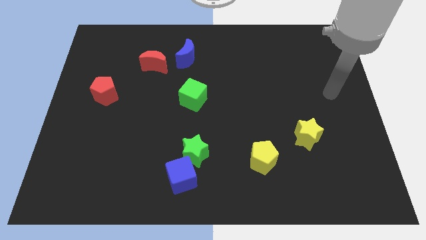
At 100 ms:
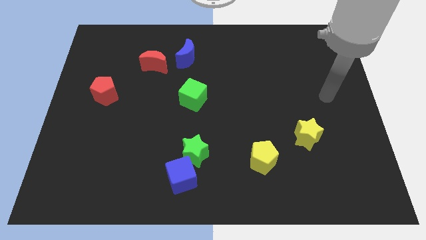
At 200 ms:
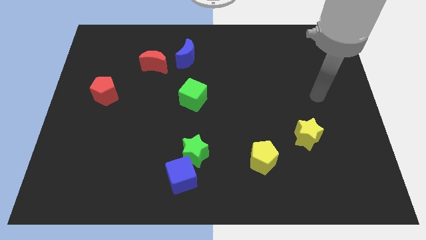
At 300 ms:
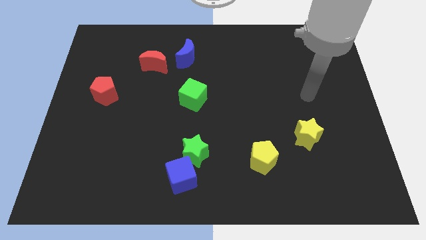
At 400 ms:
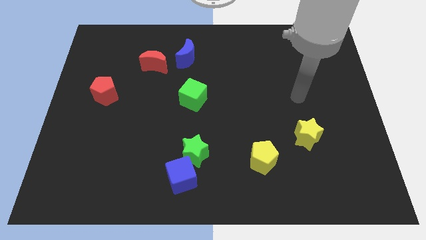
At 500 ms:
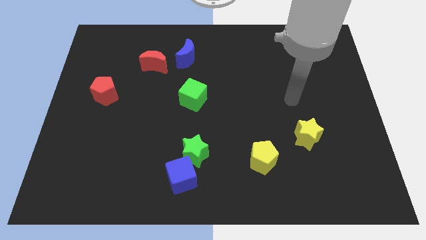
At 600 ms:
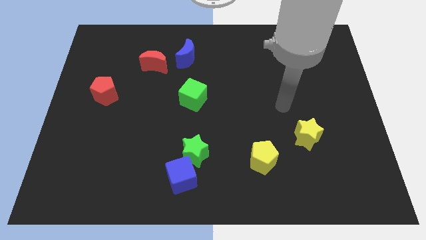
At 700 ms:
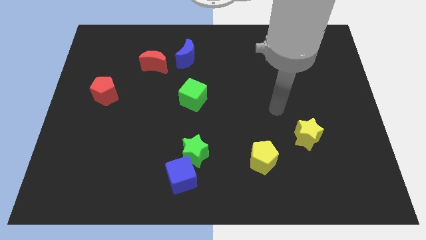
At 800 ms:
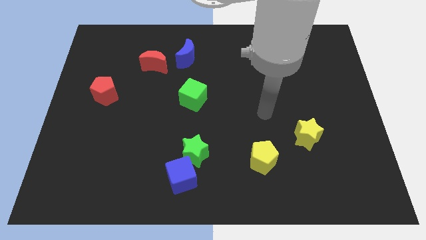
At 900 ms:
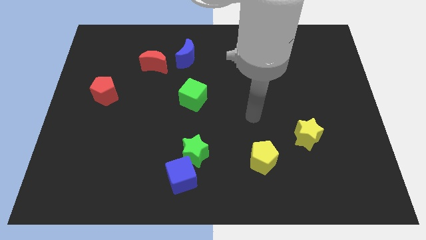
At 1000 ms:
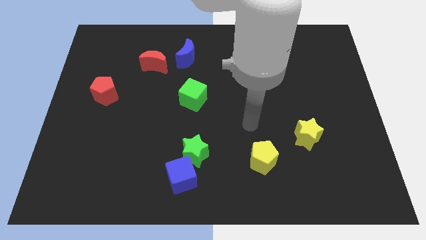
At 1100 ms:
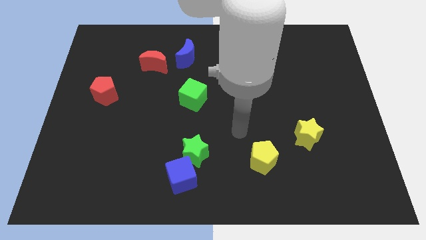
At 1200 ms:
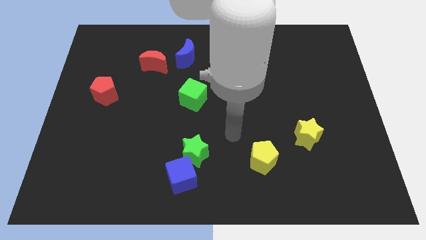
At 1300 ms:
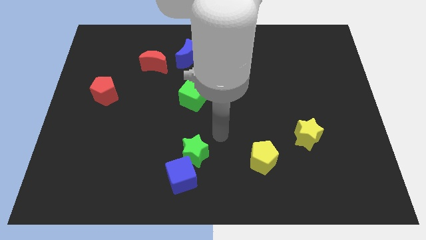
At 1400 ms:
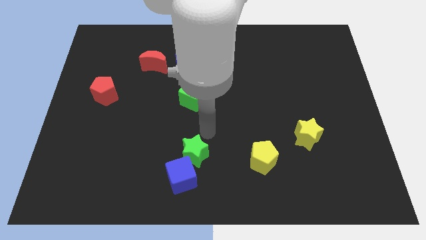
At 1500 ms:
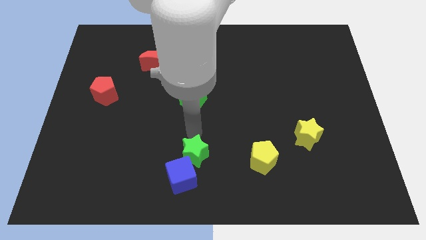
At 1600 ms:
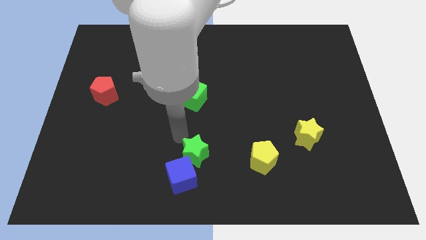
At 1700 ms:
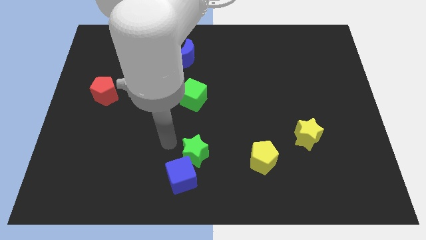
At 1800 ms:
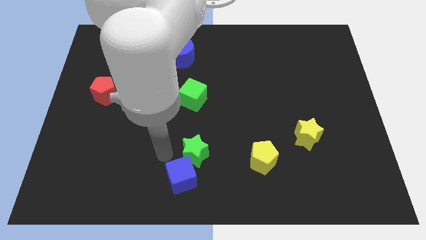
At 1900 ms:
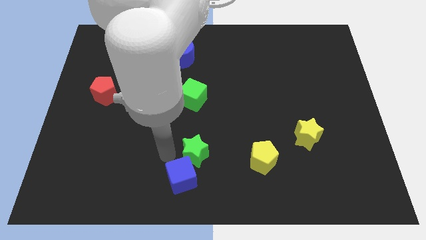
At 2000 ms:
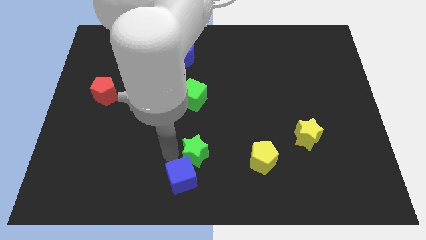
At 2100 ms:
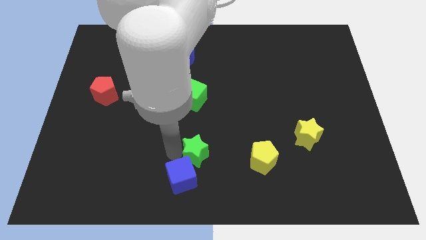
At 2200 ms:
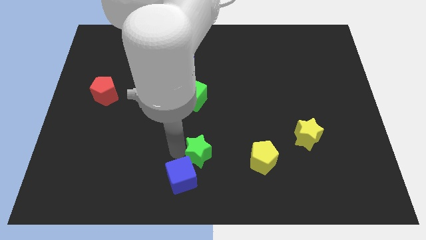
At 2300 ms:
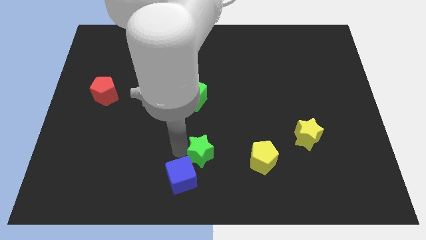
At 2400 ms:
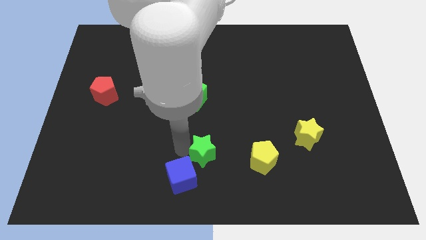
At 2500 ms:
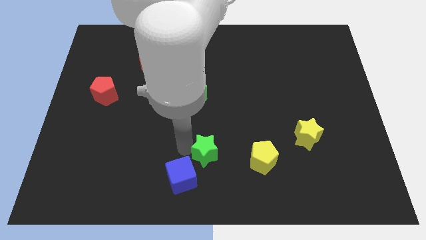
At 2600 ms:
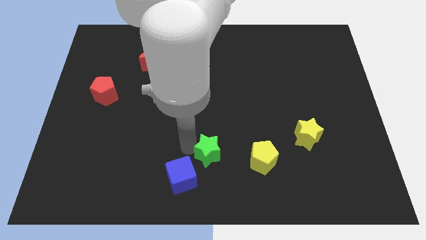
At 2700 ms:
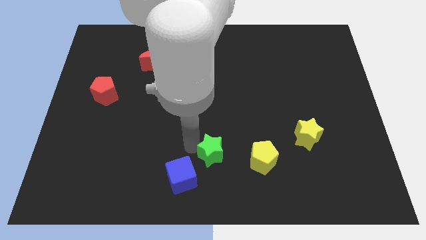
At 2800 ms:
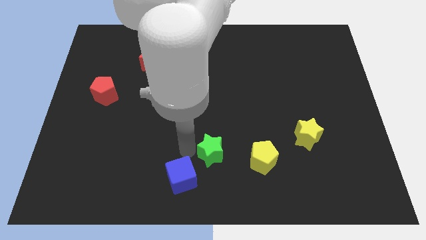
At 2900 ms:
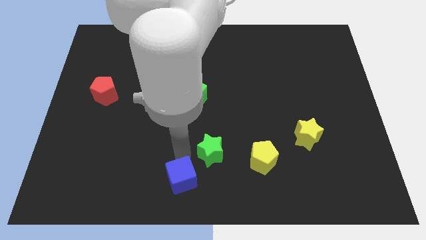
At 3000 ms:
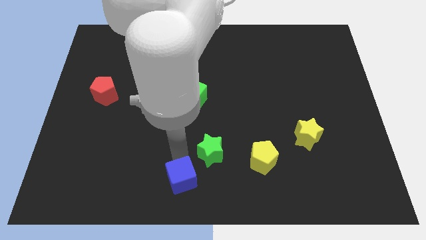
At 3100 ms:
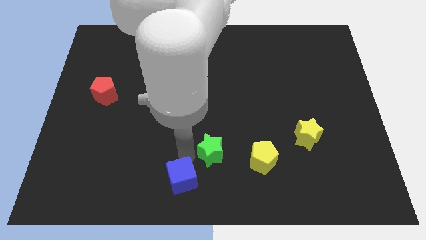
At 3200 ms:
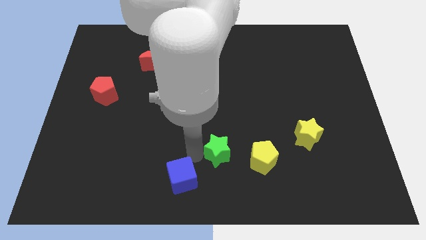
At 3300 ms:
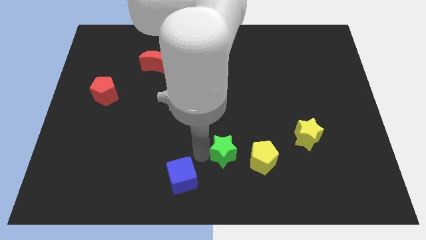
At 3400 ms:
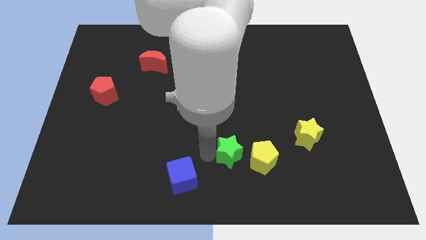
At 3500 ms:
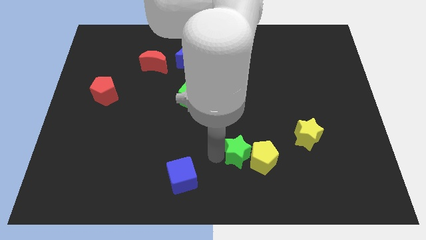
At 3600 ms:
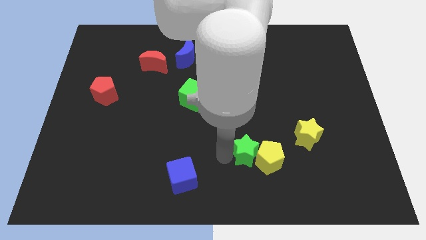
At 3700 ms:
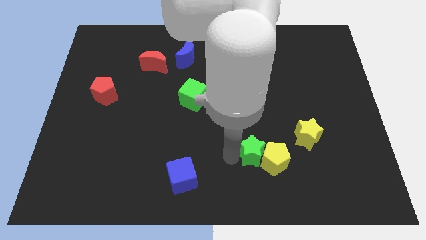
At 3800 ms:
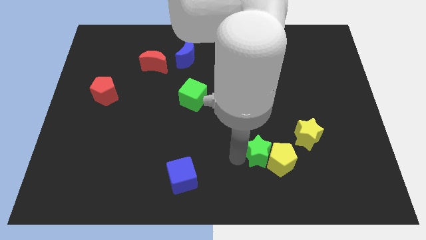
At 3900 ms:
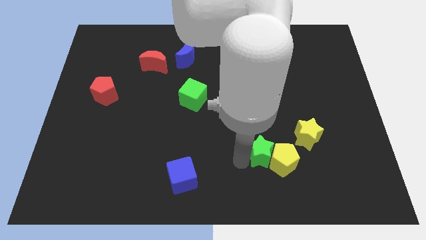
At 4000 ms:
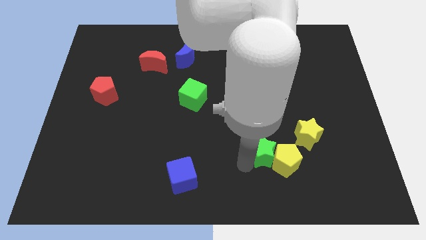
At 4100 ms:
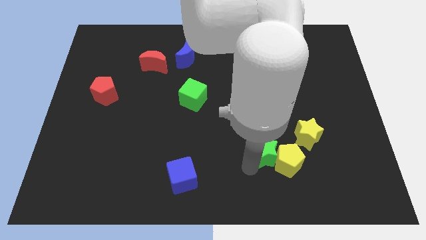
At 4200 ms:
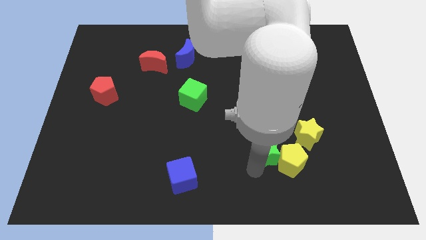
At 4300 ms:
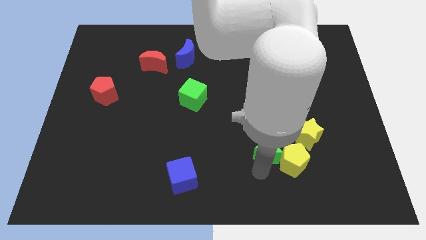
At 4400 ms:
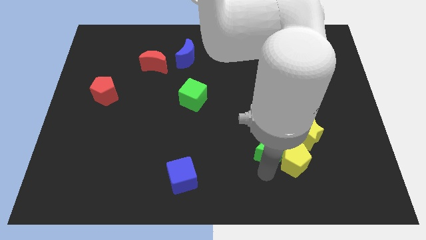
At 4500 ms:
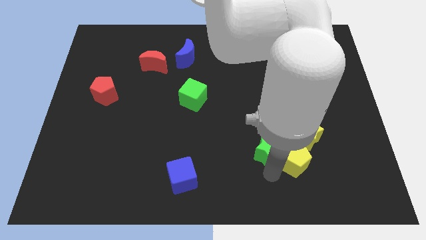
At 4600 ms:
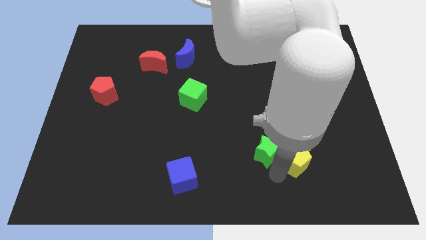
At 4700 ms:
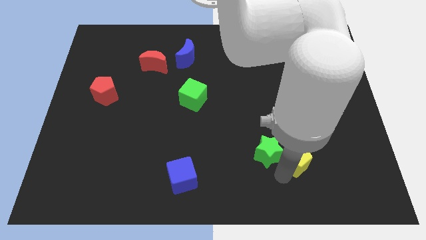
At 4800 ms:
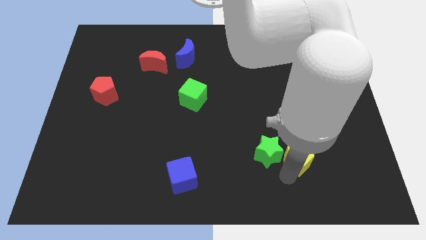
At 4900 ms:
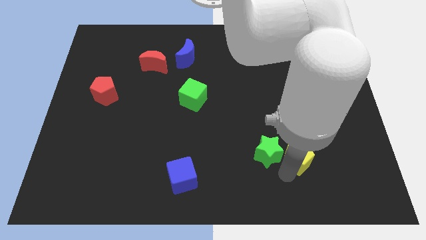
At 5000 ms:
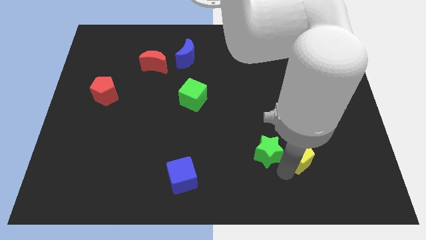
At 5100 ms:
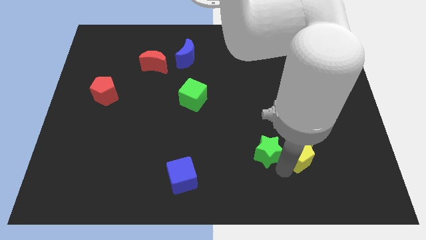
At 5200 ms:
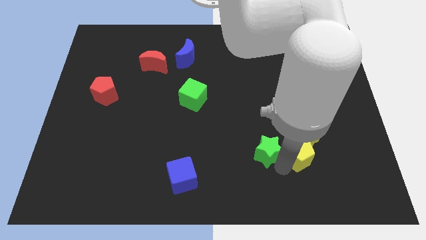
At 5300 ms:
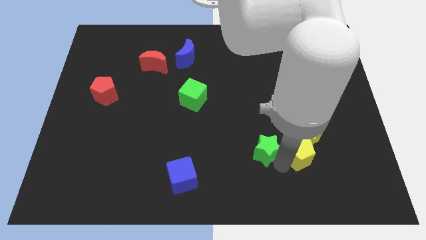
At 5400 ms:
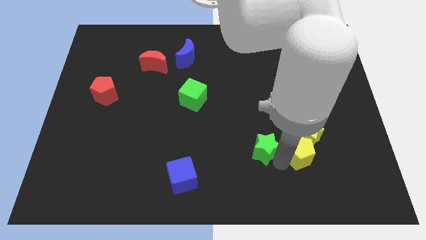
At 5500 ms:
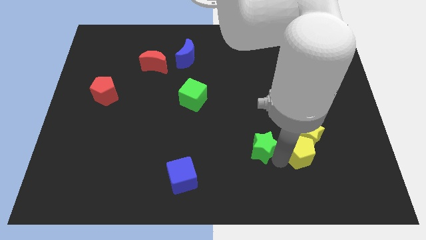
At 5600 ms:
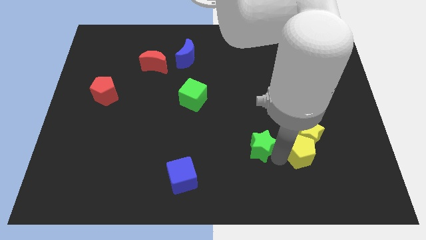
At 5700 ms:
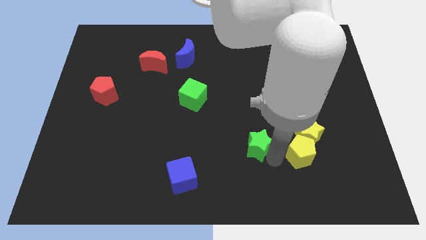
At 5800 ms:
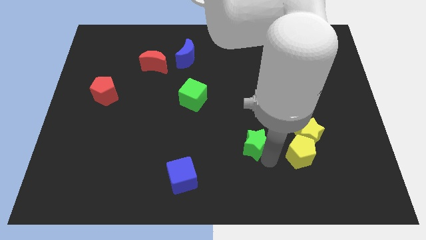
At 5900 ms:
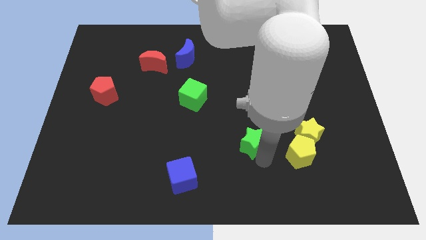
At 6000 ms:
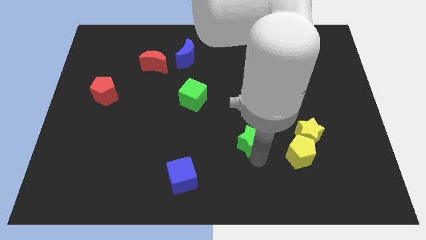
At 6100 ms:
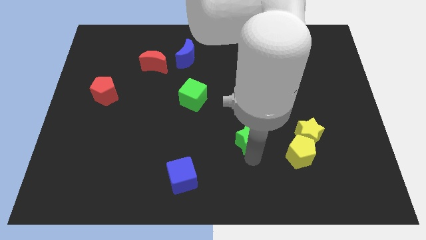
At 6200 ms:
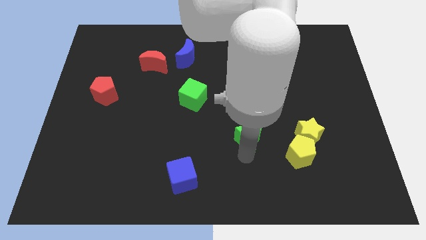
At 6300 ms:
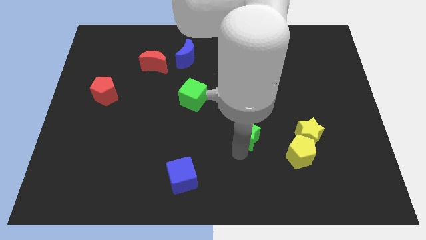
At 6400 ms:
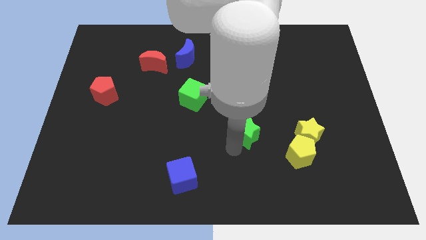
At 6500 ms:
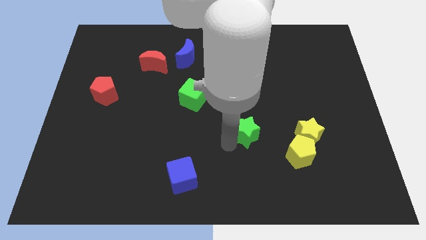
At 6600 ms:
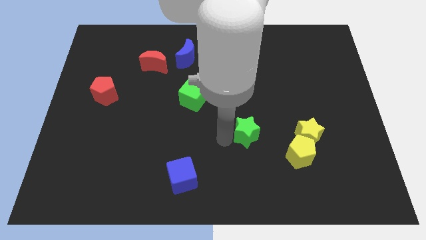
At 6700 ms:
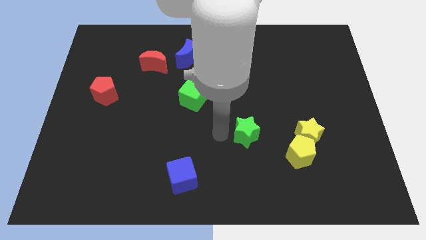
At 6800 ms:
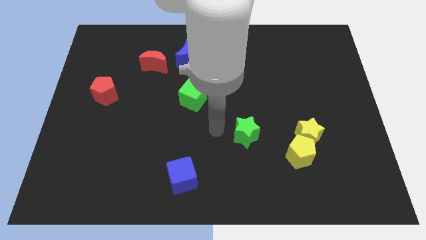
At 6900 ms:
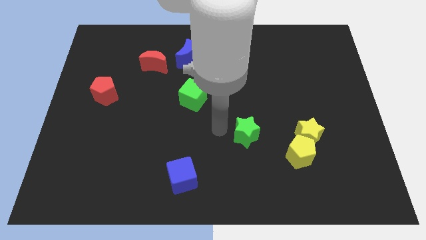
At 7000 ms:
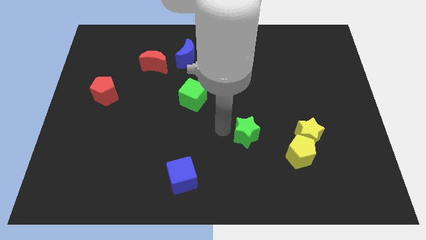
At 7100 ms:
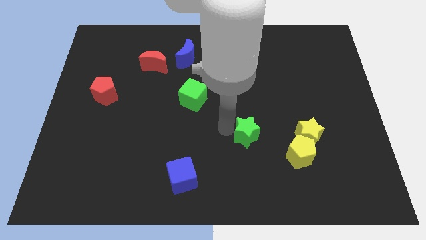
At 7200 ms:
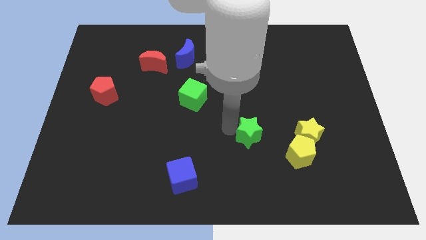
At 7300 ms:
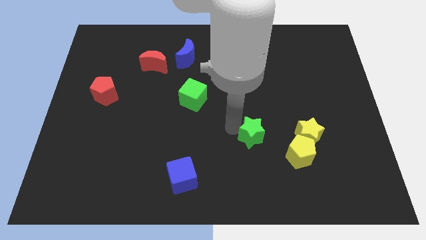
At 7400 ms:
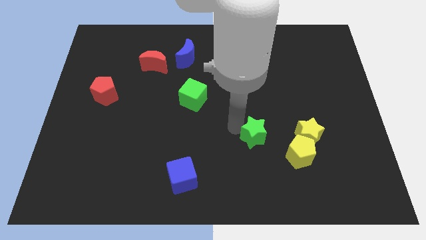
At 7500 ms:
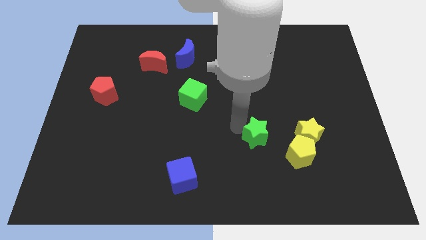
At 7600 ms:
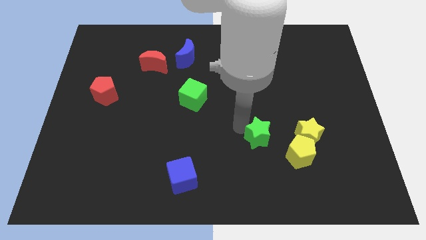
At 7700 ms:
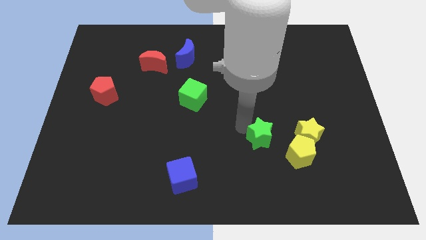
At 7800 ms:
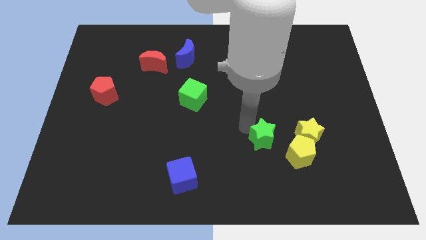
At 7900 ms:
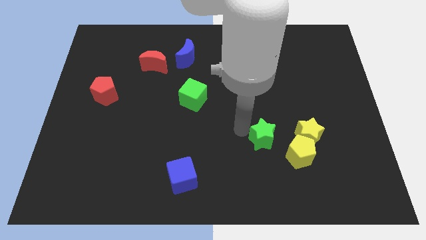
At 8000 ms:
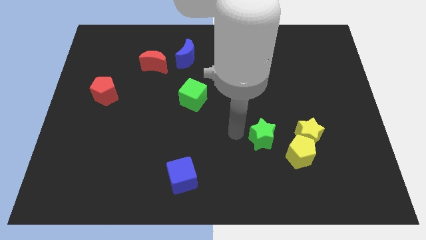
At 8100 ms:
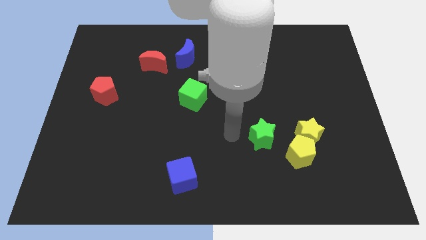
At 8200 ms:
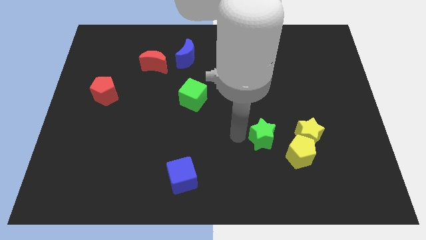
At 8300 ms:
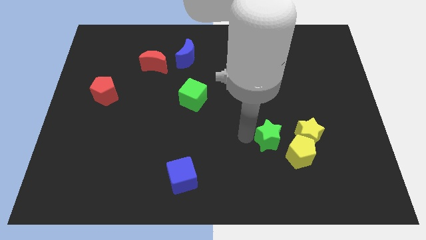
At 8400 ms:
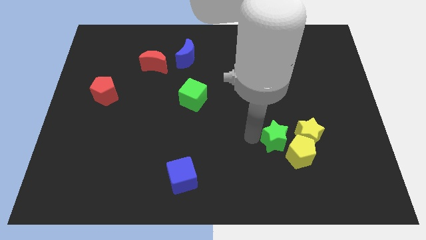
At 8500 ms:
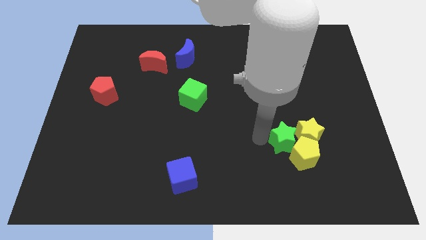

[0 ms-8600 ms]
slide the green star to the yellow star
